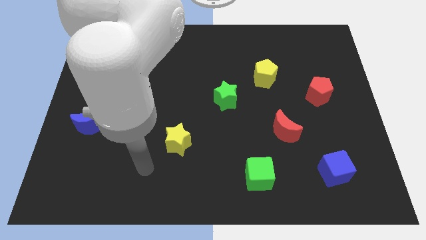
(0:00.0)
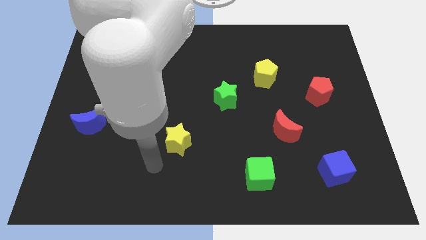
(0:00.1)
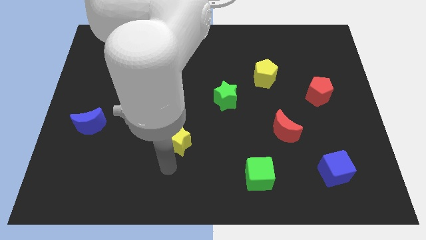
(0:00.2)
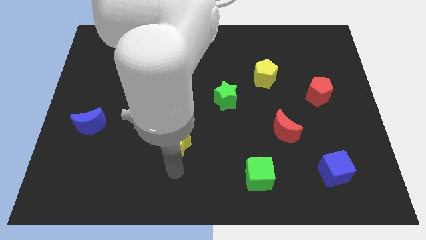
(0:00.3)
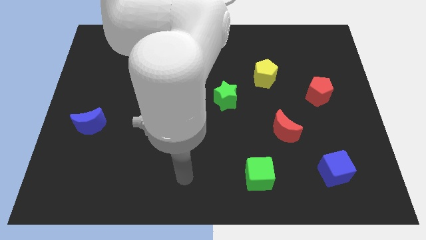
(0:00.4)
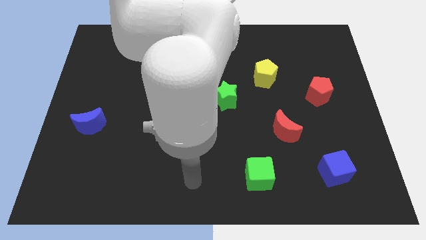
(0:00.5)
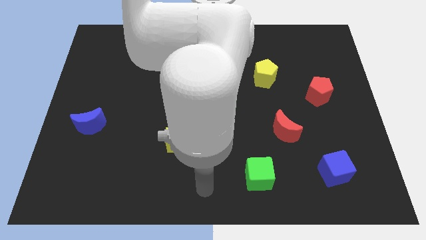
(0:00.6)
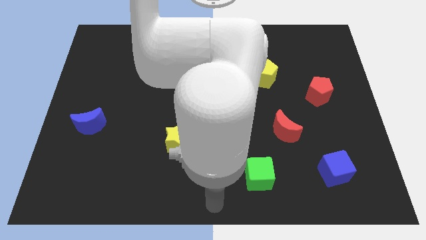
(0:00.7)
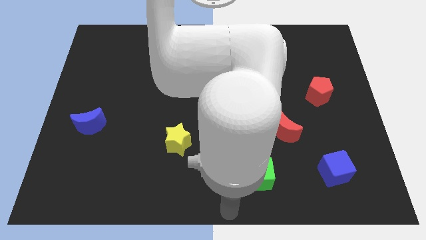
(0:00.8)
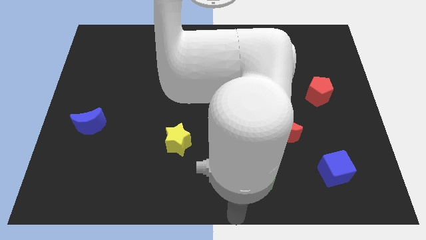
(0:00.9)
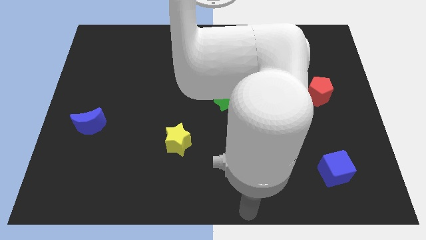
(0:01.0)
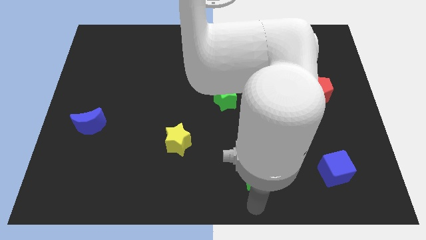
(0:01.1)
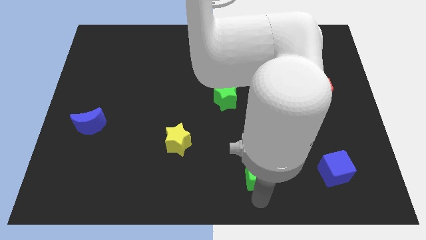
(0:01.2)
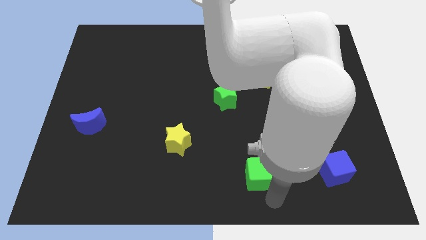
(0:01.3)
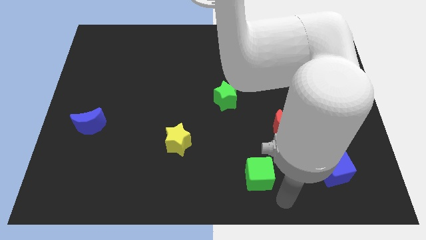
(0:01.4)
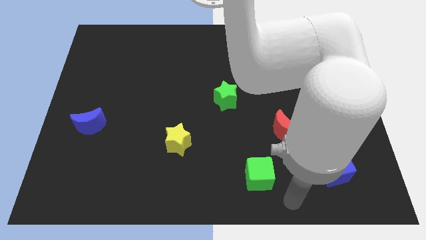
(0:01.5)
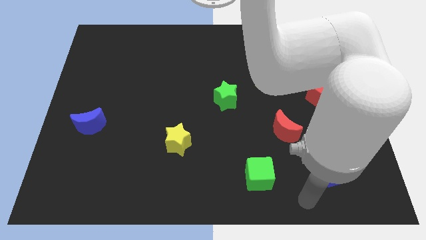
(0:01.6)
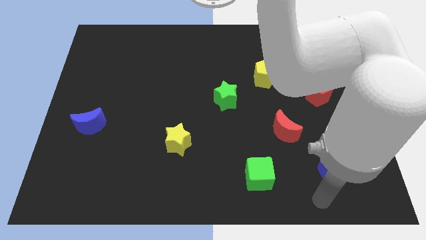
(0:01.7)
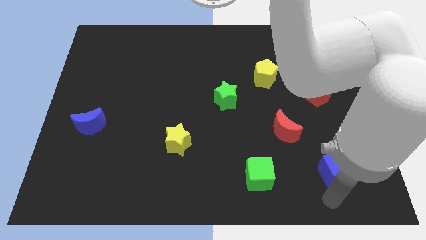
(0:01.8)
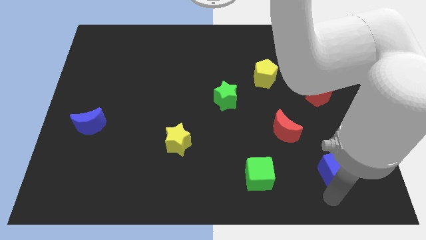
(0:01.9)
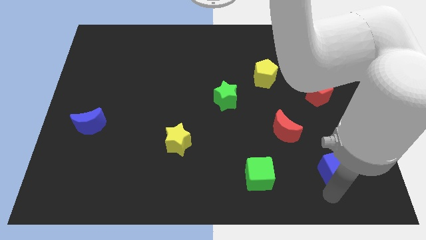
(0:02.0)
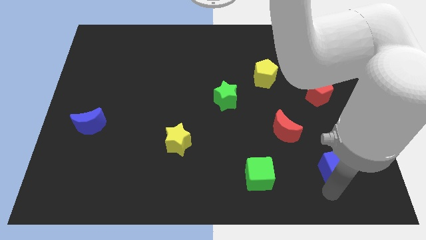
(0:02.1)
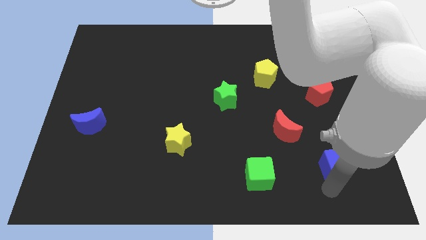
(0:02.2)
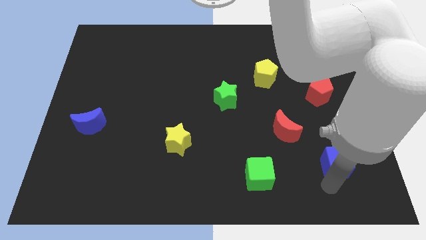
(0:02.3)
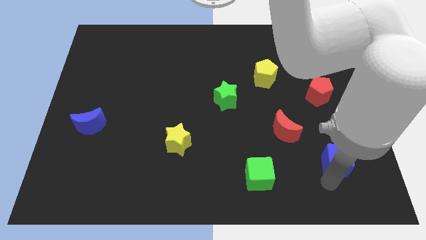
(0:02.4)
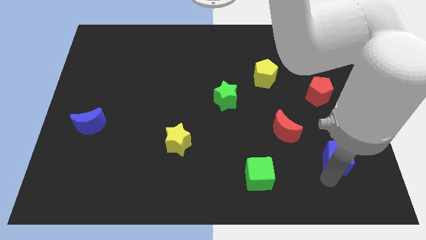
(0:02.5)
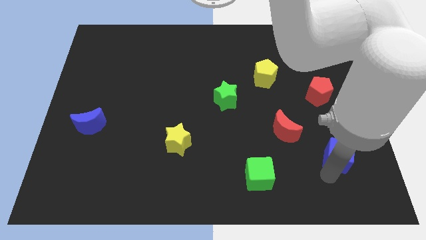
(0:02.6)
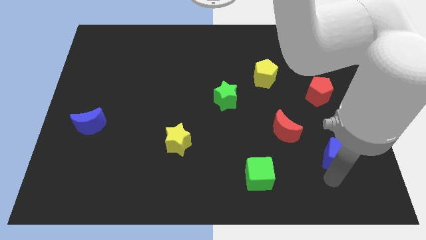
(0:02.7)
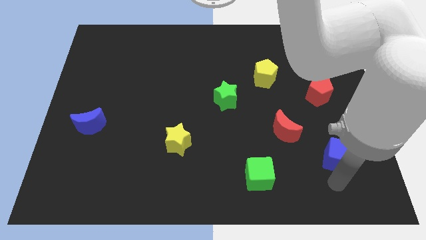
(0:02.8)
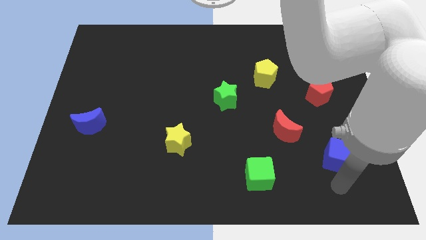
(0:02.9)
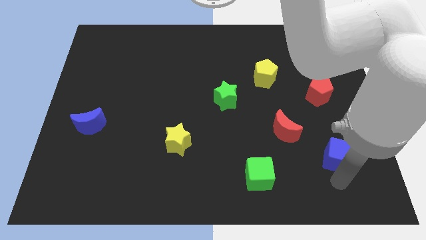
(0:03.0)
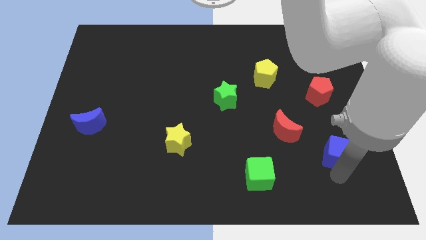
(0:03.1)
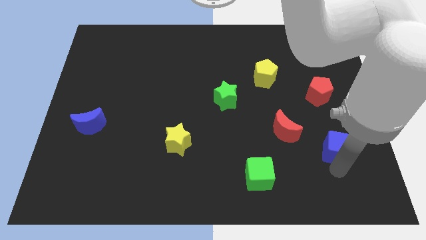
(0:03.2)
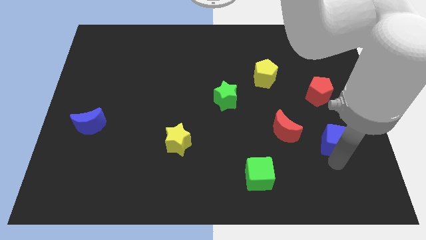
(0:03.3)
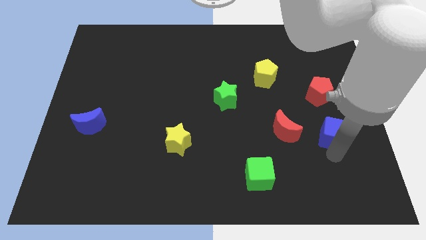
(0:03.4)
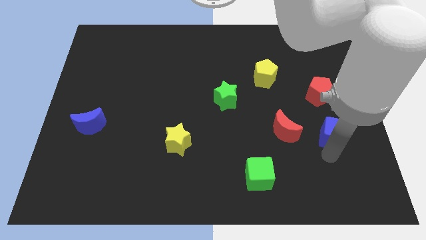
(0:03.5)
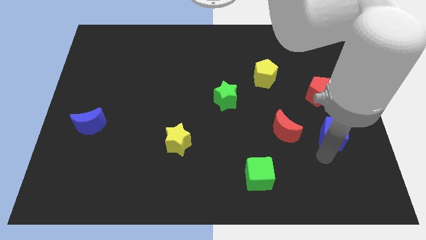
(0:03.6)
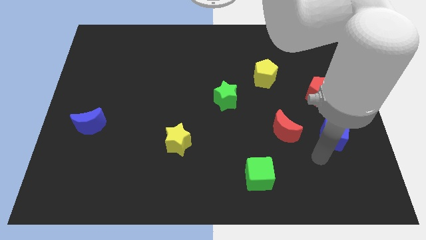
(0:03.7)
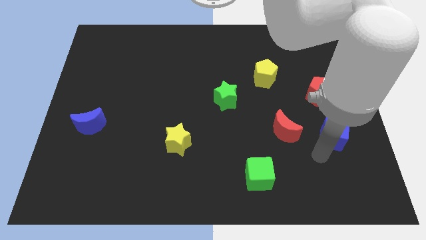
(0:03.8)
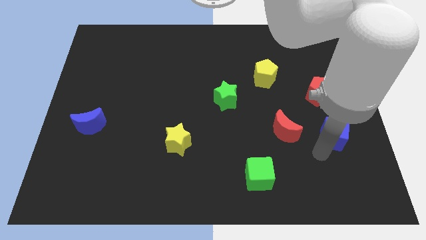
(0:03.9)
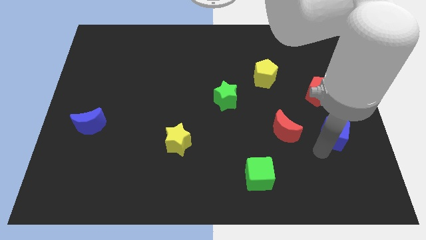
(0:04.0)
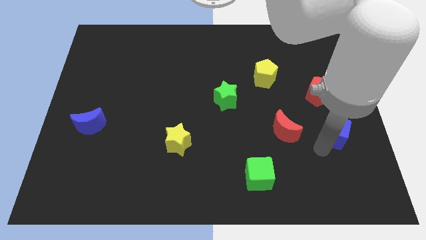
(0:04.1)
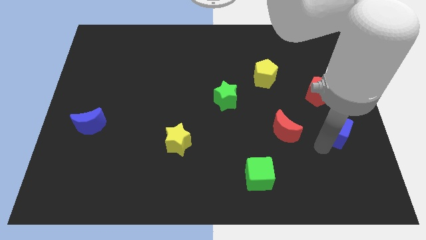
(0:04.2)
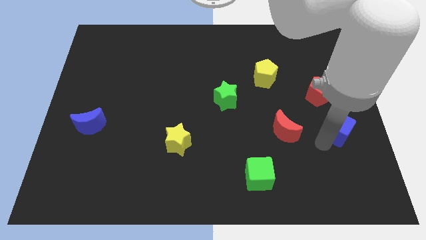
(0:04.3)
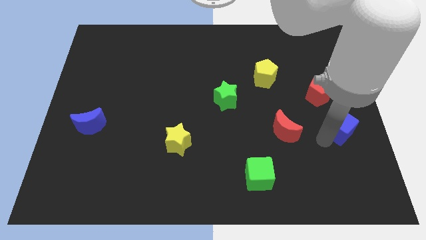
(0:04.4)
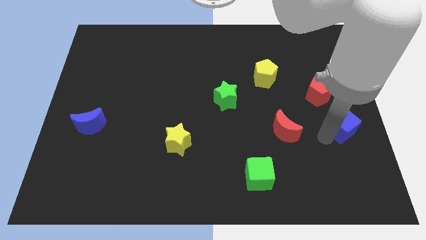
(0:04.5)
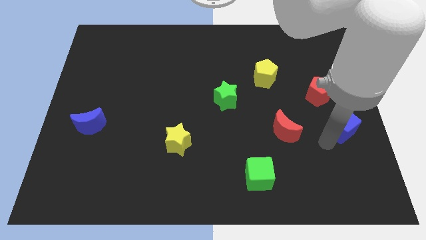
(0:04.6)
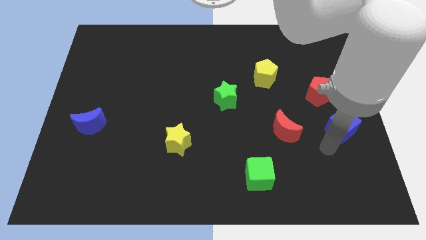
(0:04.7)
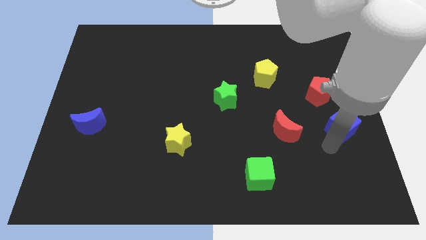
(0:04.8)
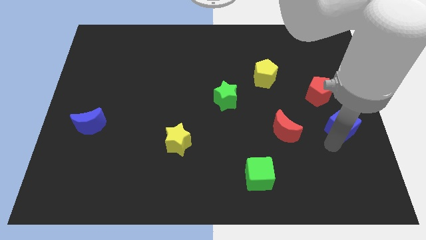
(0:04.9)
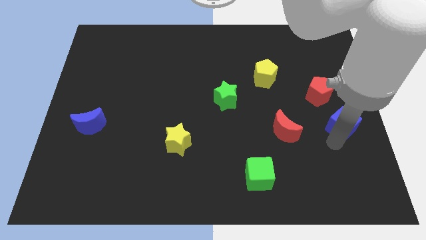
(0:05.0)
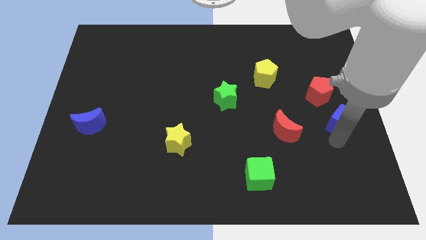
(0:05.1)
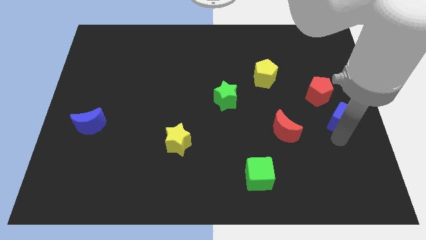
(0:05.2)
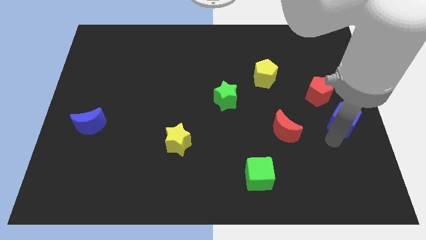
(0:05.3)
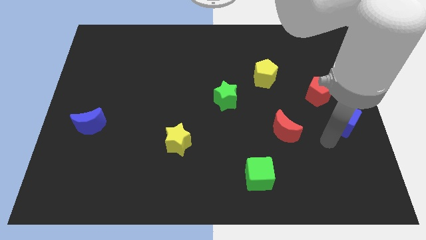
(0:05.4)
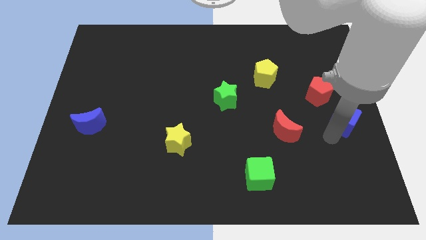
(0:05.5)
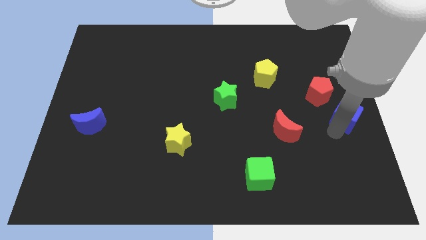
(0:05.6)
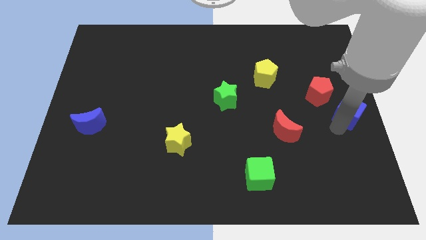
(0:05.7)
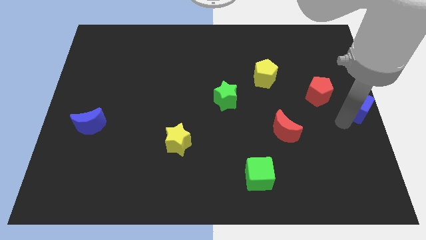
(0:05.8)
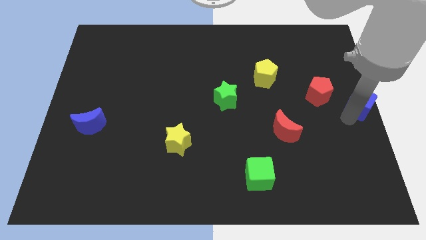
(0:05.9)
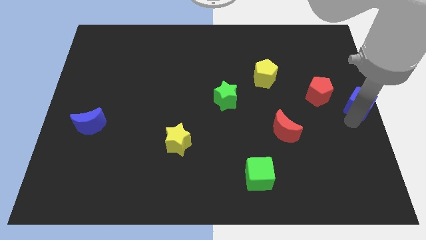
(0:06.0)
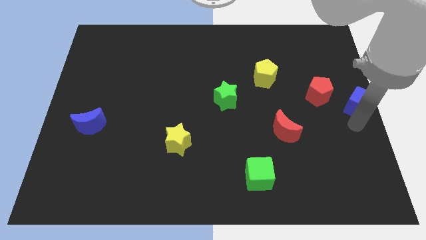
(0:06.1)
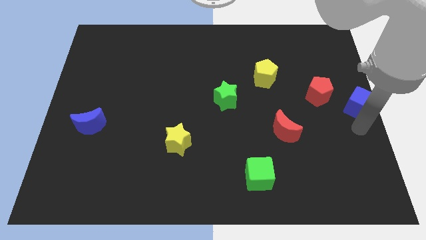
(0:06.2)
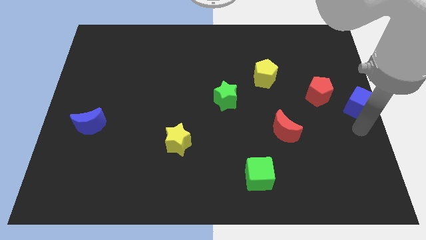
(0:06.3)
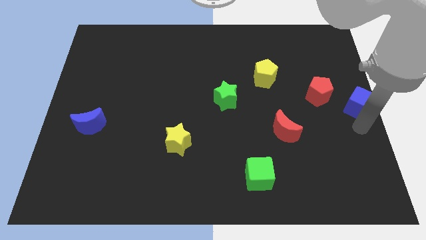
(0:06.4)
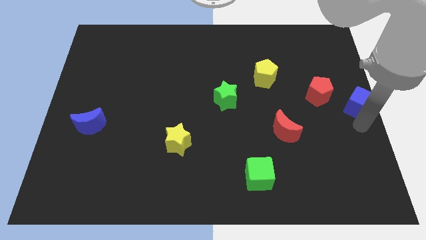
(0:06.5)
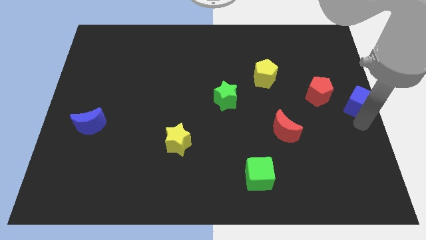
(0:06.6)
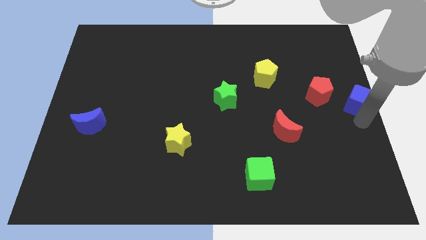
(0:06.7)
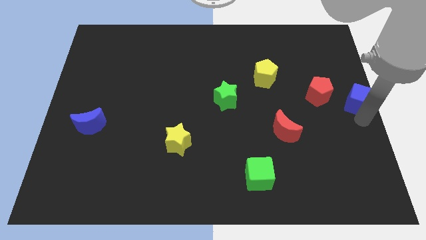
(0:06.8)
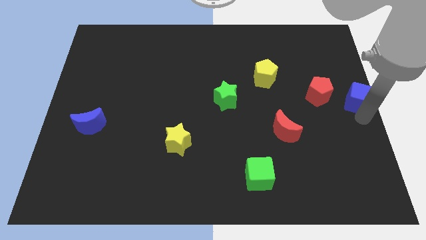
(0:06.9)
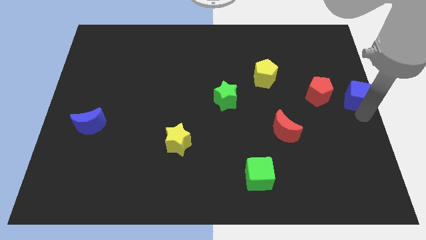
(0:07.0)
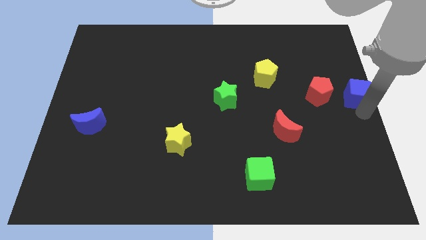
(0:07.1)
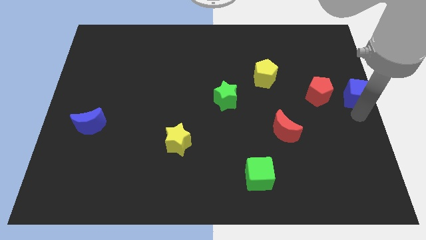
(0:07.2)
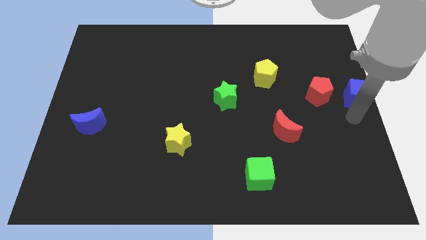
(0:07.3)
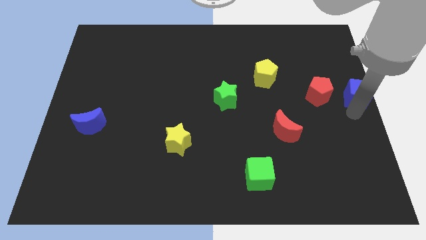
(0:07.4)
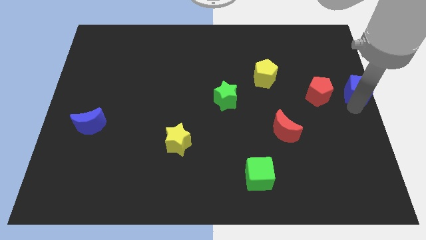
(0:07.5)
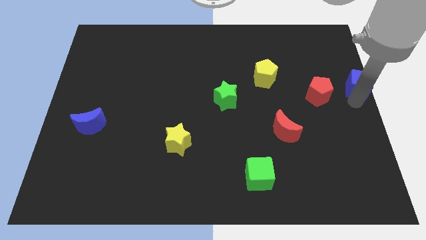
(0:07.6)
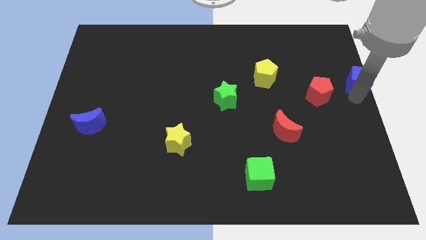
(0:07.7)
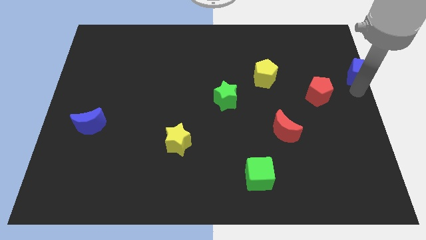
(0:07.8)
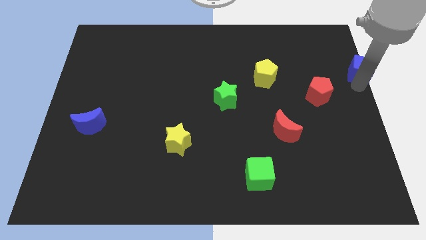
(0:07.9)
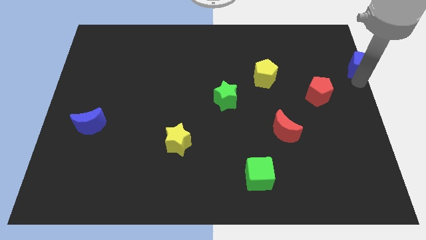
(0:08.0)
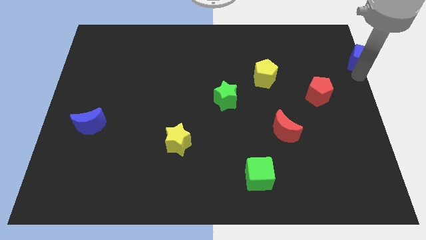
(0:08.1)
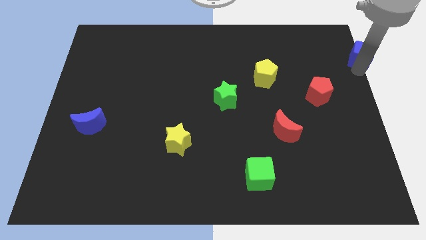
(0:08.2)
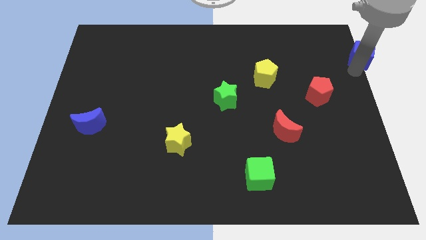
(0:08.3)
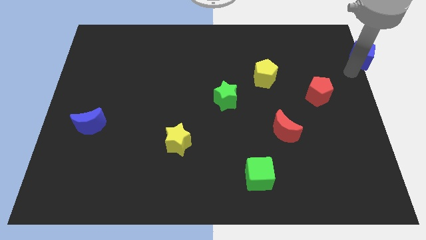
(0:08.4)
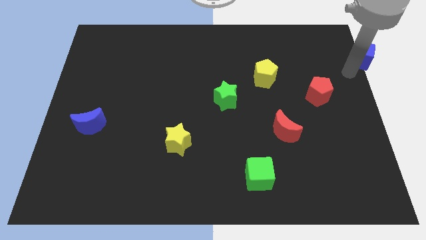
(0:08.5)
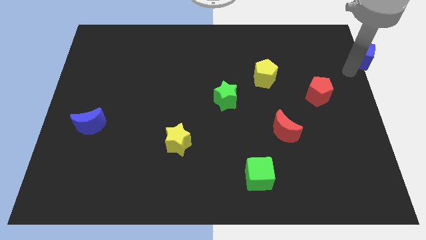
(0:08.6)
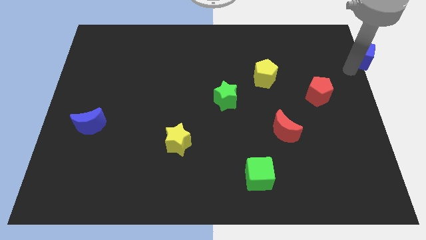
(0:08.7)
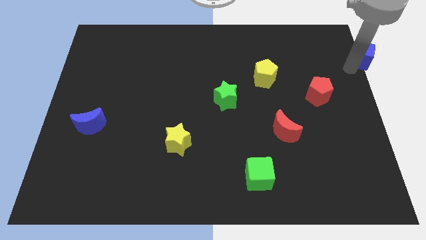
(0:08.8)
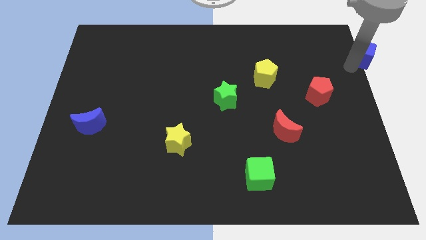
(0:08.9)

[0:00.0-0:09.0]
move the blue cube to the top right of the board
